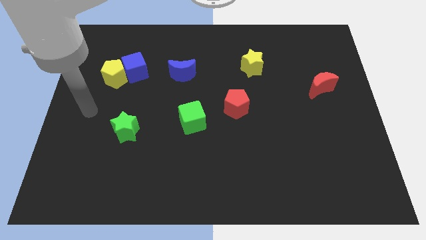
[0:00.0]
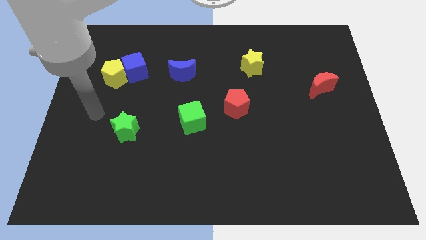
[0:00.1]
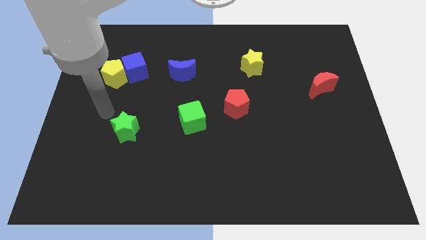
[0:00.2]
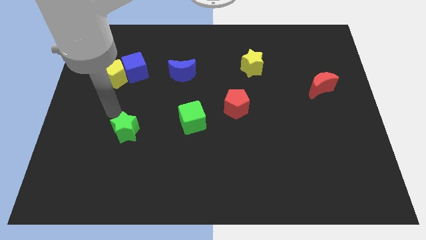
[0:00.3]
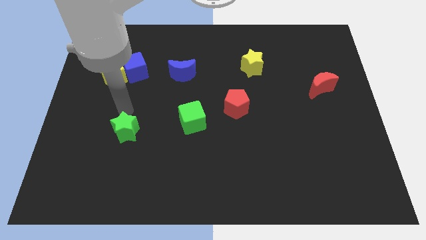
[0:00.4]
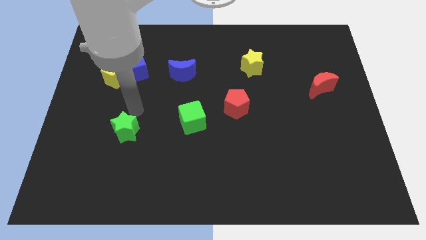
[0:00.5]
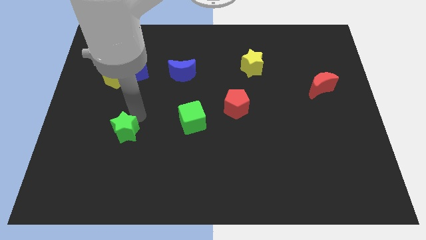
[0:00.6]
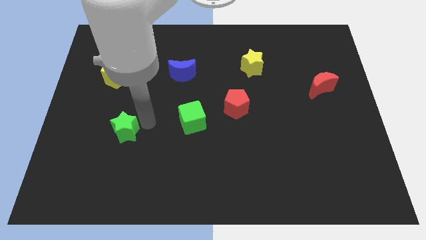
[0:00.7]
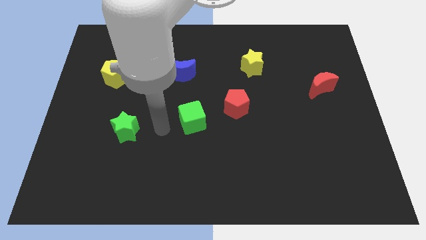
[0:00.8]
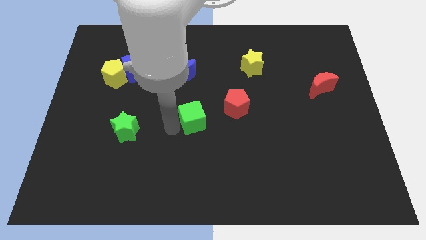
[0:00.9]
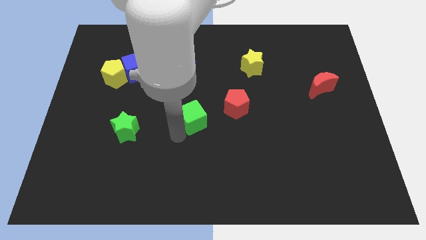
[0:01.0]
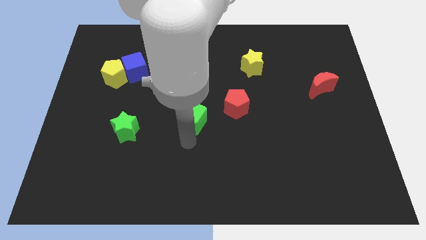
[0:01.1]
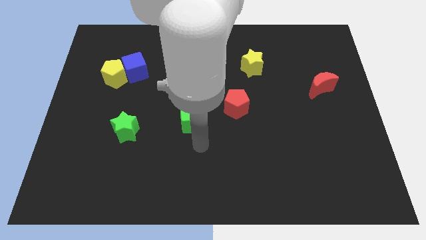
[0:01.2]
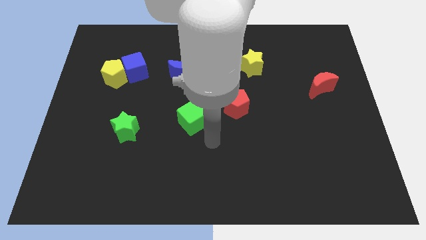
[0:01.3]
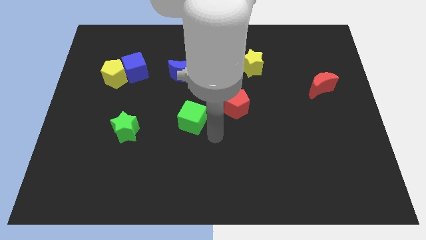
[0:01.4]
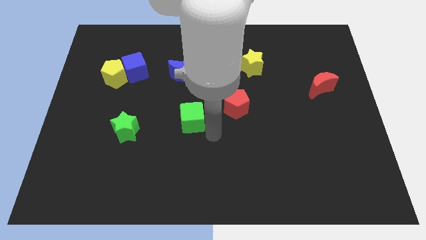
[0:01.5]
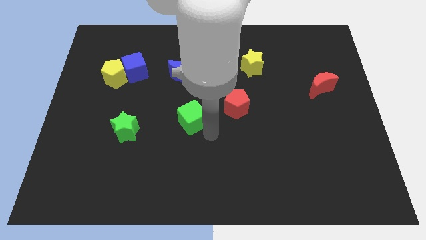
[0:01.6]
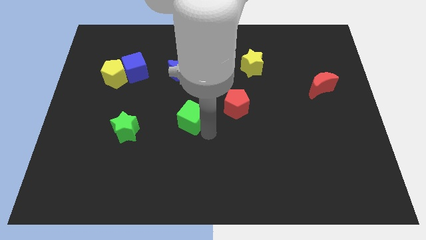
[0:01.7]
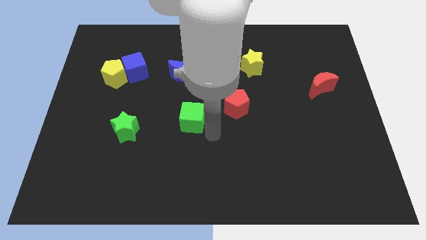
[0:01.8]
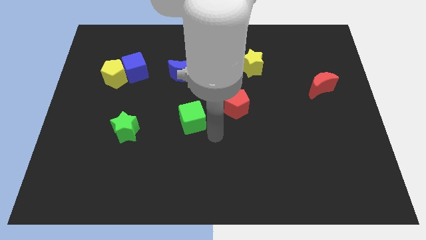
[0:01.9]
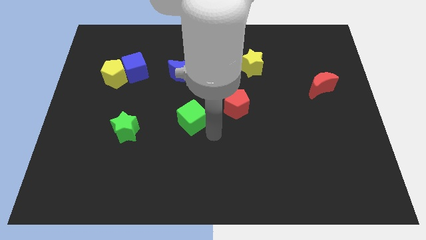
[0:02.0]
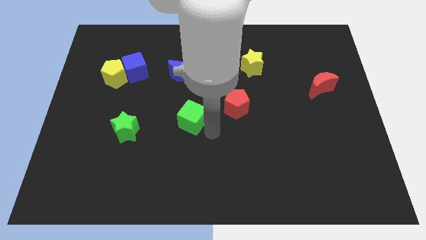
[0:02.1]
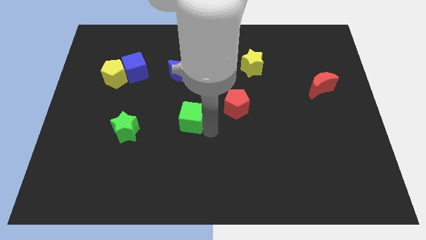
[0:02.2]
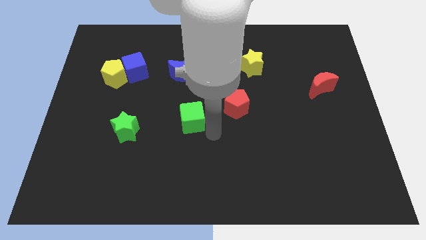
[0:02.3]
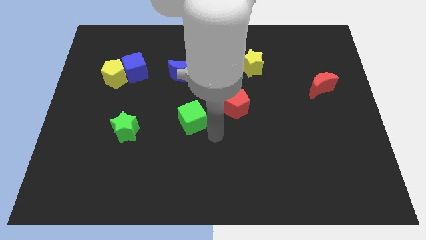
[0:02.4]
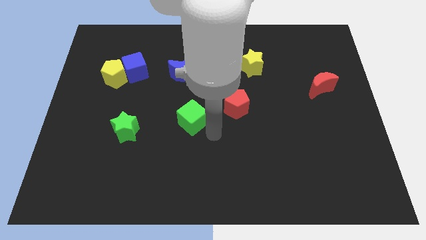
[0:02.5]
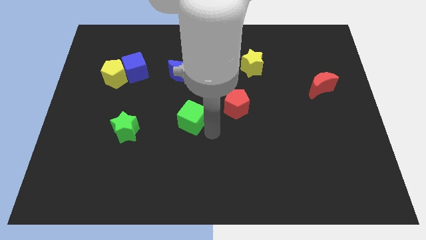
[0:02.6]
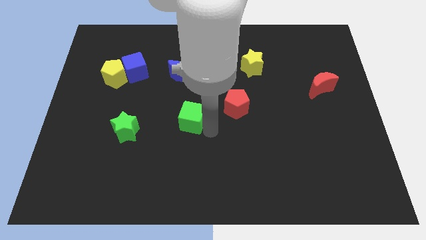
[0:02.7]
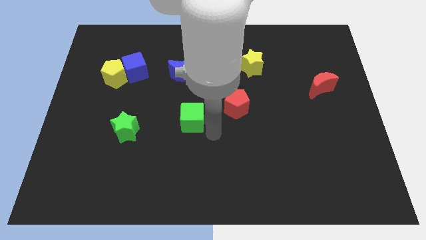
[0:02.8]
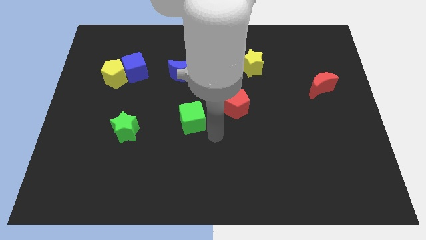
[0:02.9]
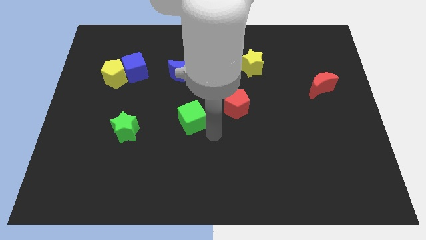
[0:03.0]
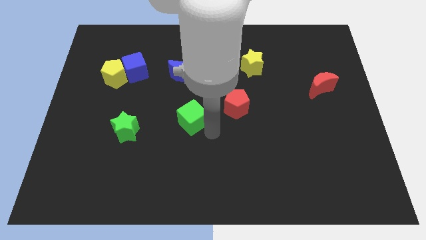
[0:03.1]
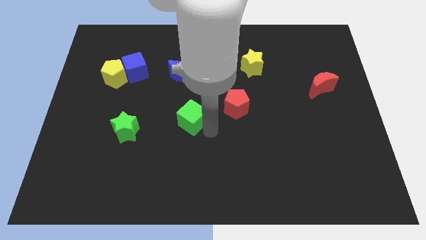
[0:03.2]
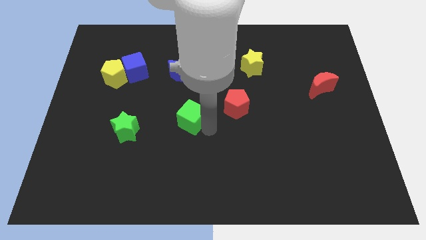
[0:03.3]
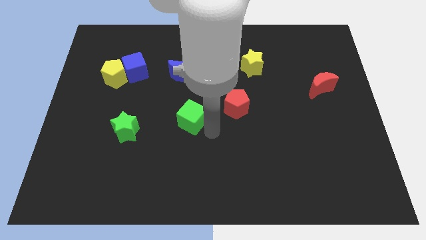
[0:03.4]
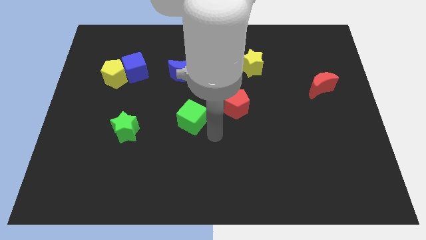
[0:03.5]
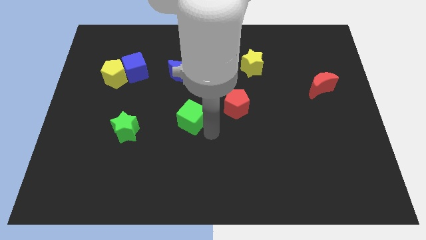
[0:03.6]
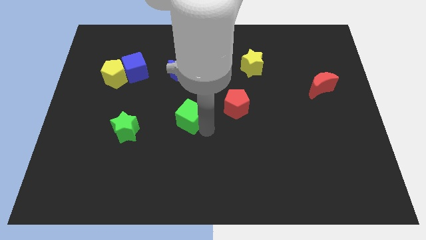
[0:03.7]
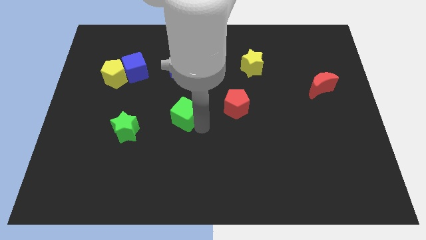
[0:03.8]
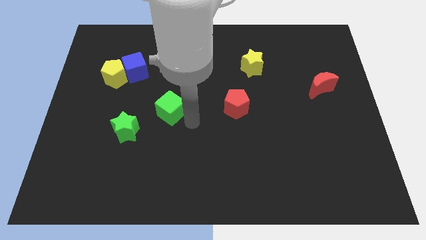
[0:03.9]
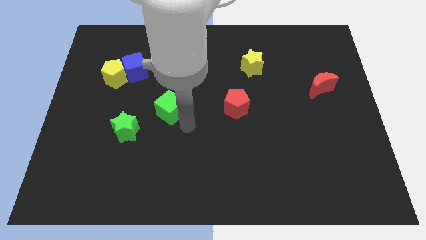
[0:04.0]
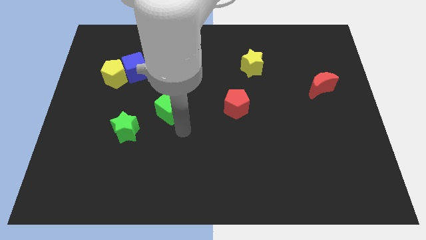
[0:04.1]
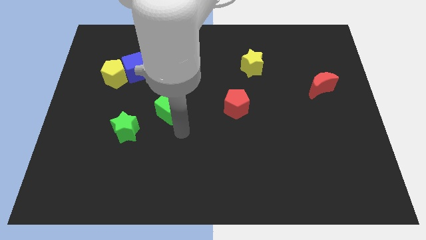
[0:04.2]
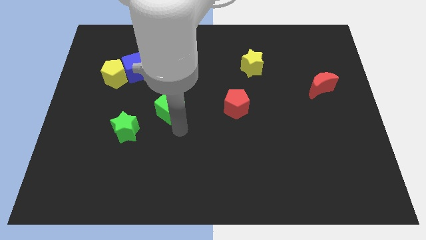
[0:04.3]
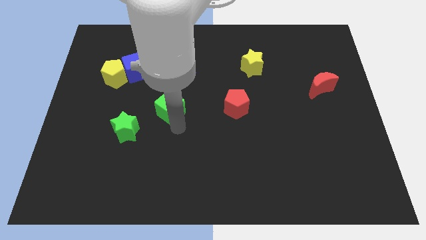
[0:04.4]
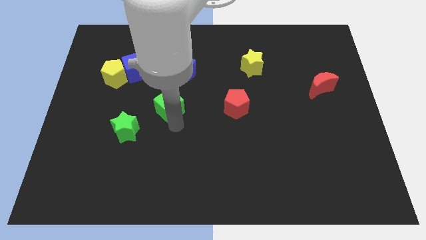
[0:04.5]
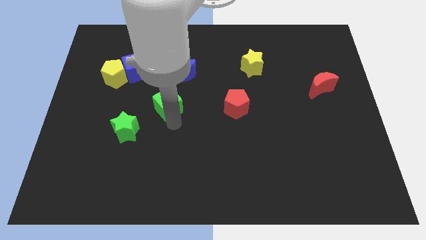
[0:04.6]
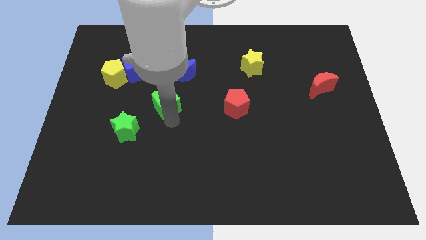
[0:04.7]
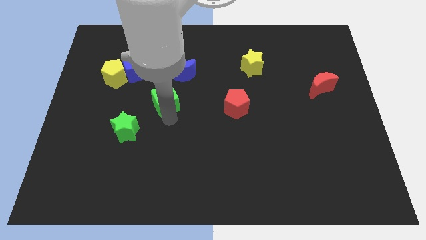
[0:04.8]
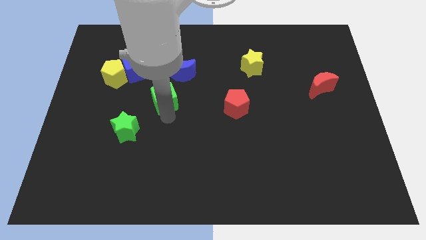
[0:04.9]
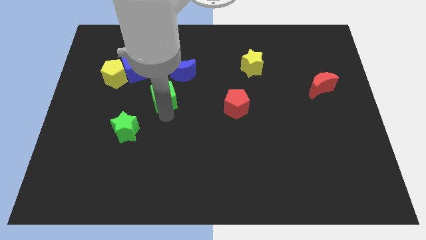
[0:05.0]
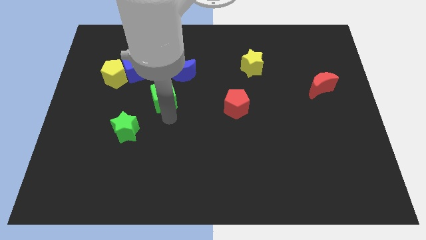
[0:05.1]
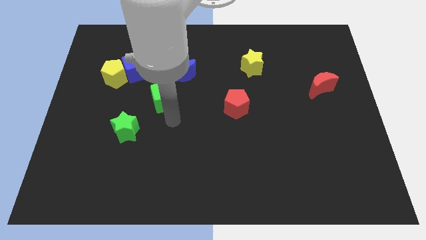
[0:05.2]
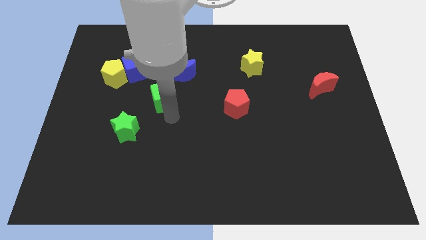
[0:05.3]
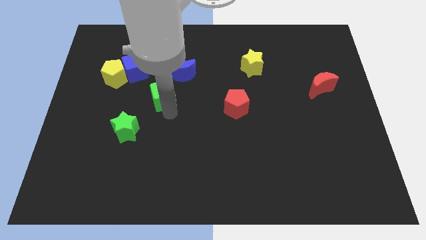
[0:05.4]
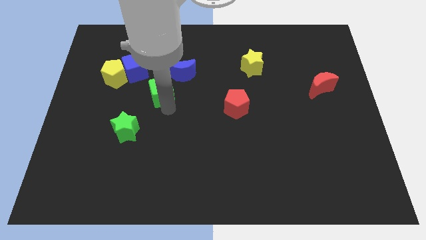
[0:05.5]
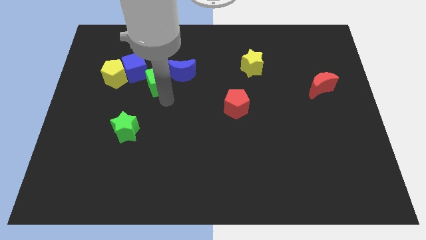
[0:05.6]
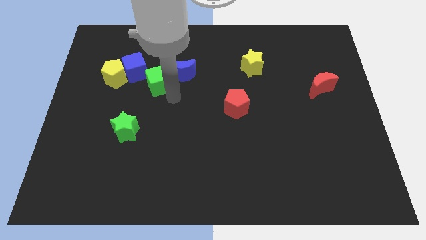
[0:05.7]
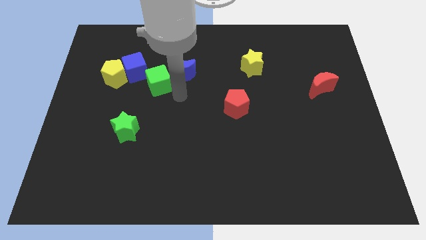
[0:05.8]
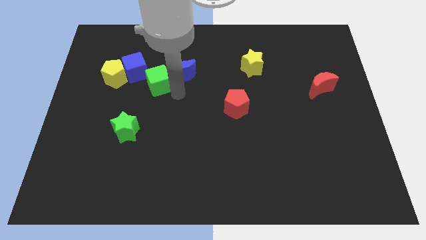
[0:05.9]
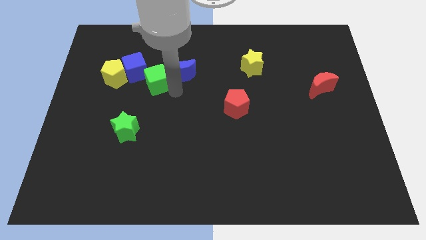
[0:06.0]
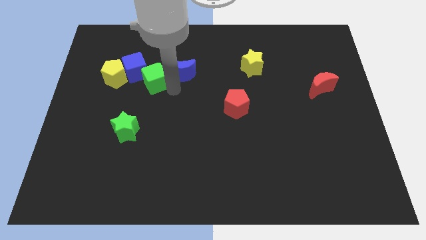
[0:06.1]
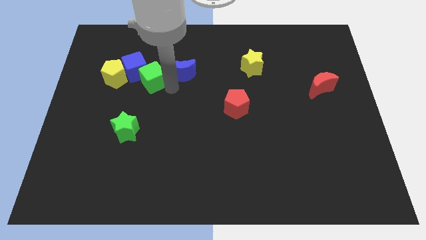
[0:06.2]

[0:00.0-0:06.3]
push the green cube towards the blue cube

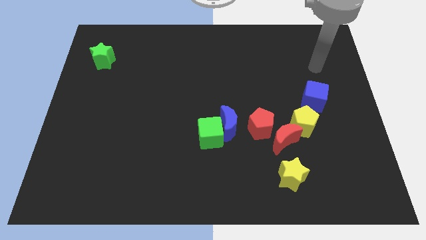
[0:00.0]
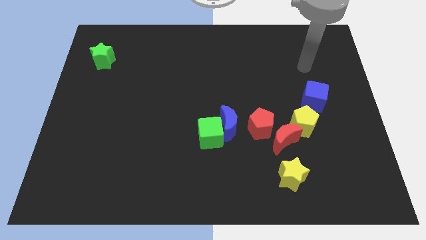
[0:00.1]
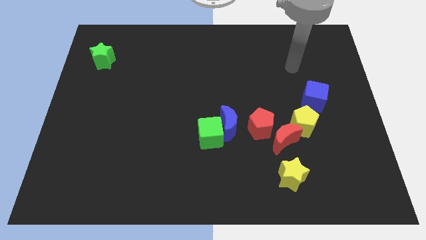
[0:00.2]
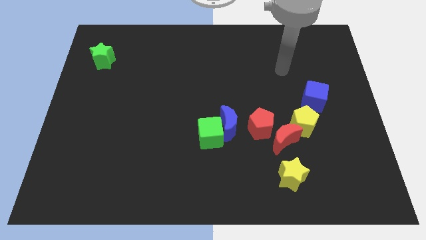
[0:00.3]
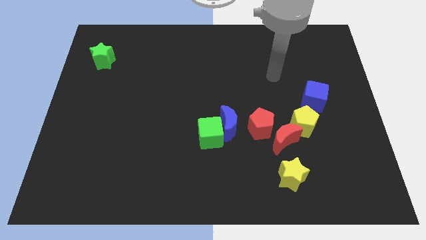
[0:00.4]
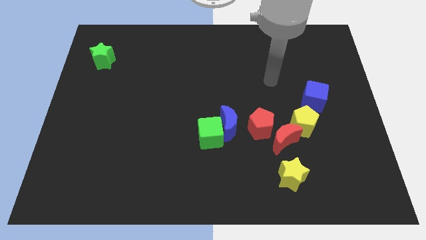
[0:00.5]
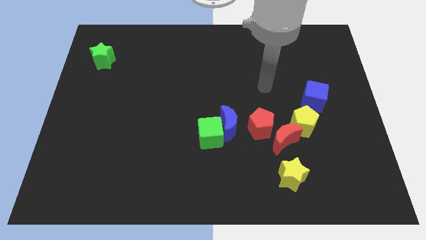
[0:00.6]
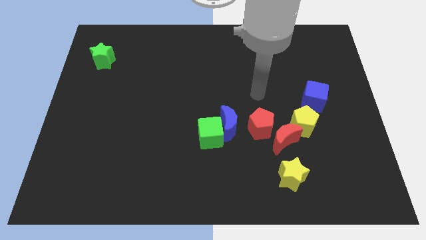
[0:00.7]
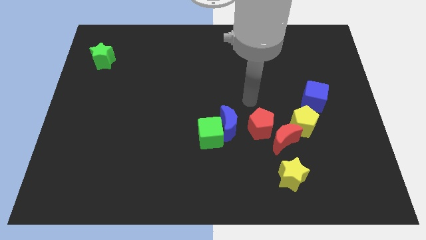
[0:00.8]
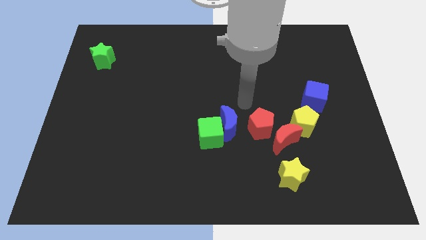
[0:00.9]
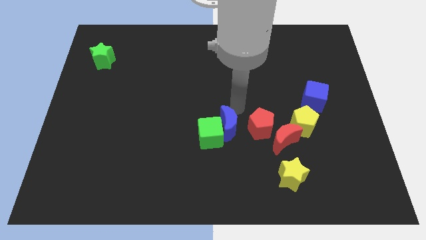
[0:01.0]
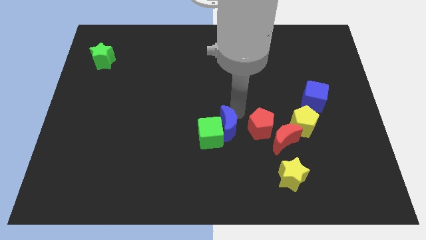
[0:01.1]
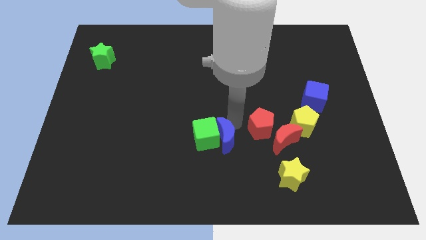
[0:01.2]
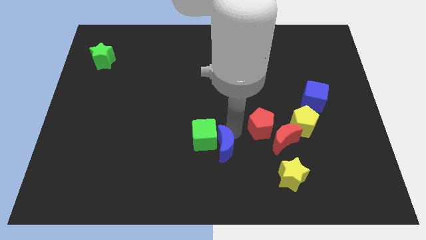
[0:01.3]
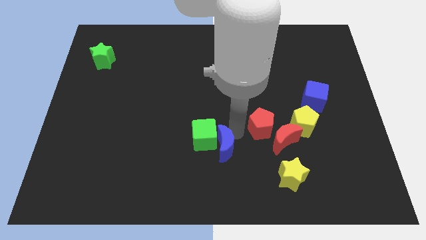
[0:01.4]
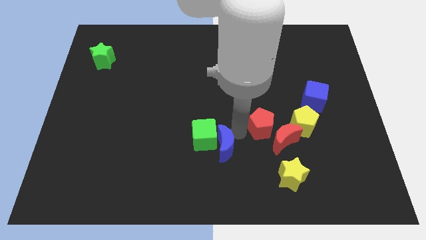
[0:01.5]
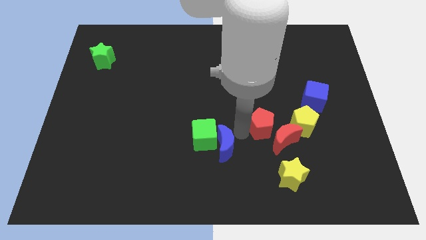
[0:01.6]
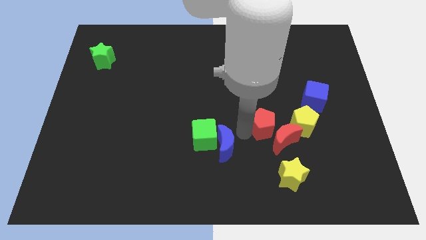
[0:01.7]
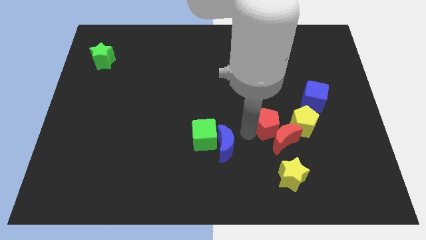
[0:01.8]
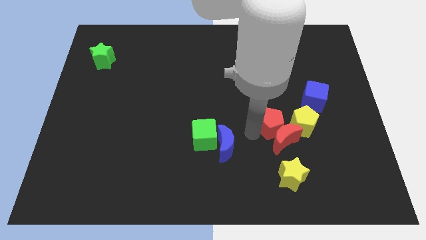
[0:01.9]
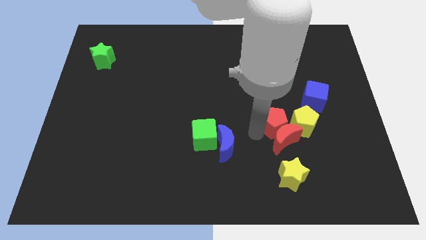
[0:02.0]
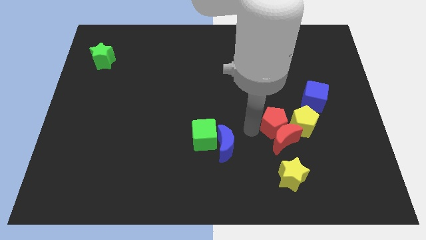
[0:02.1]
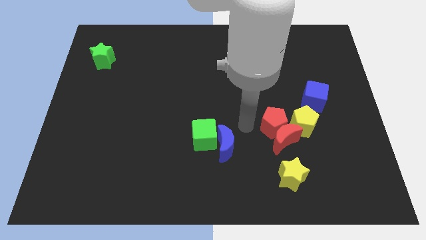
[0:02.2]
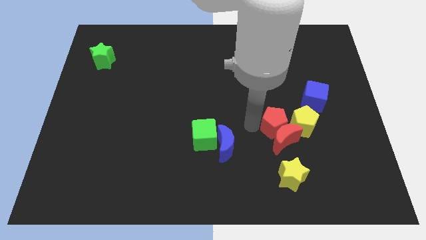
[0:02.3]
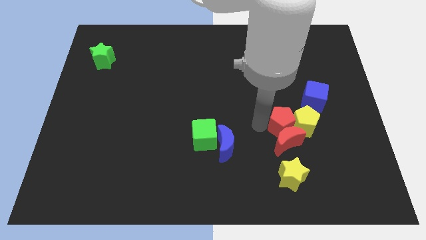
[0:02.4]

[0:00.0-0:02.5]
move the red pentagon next to the yellow pentagon
